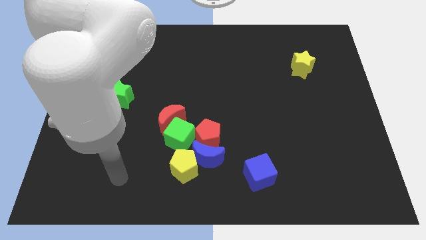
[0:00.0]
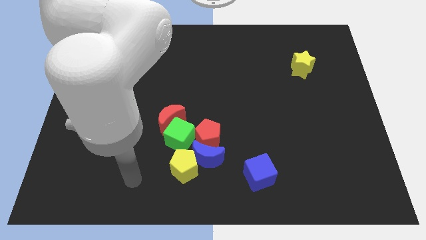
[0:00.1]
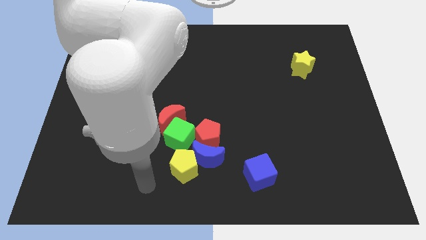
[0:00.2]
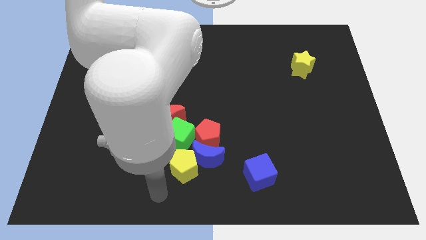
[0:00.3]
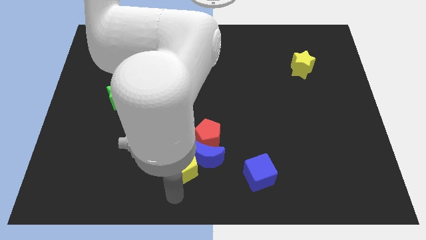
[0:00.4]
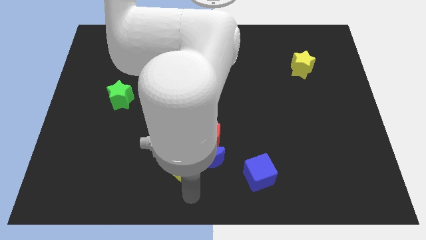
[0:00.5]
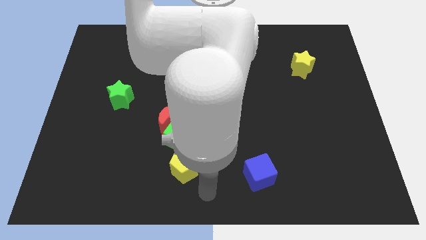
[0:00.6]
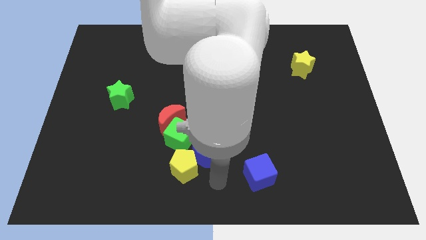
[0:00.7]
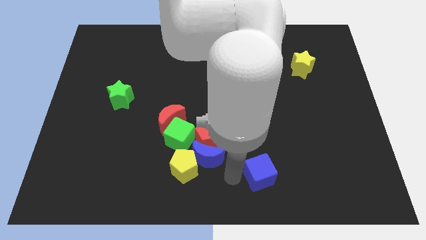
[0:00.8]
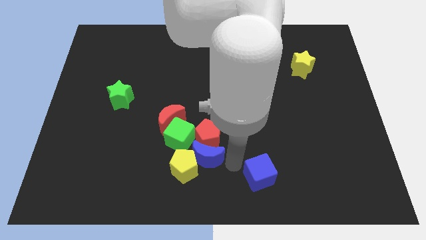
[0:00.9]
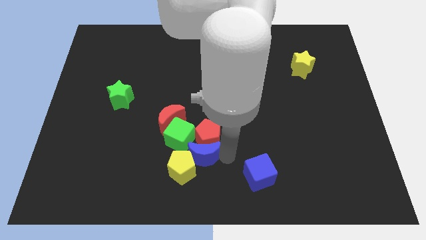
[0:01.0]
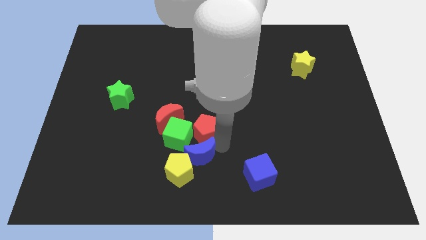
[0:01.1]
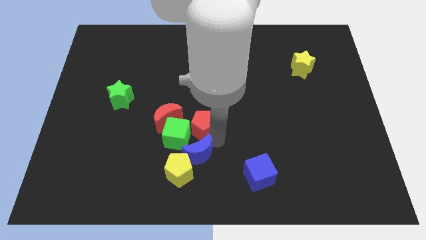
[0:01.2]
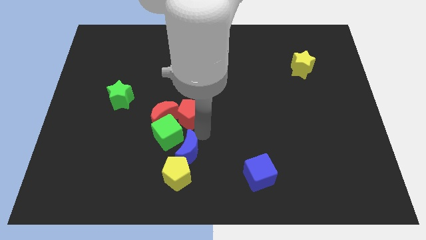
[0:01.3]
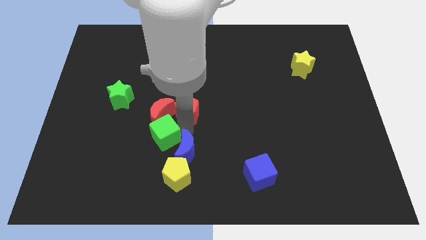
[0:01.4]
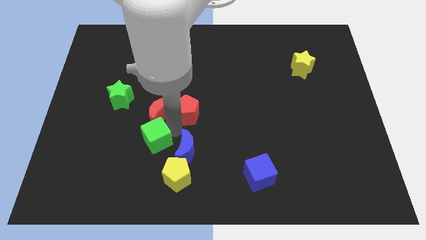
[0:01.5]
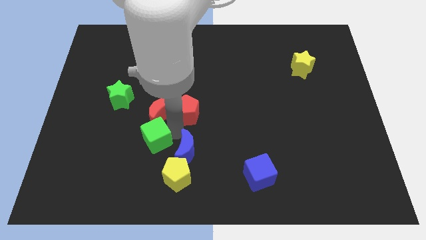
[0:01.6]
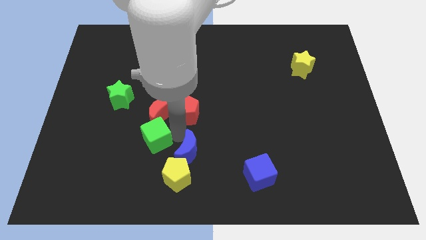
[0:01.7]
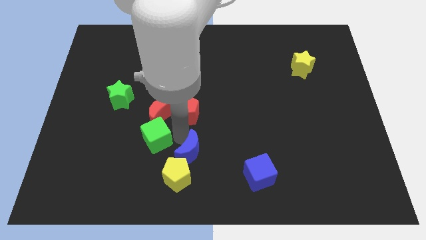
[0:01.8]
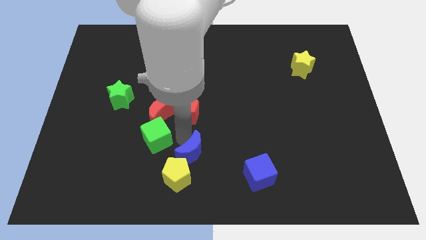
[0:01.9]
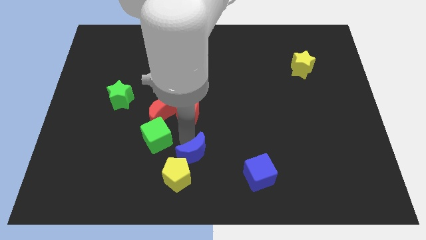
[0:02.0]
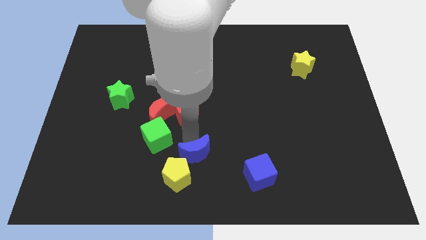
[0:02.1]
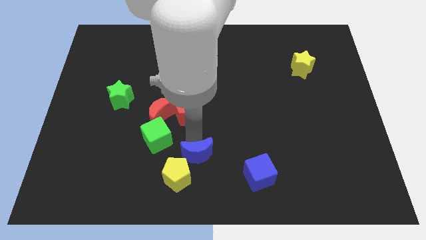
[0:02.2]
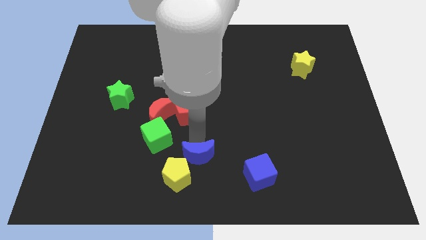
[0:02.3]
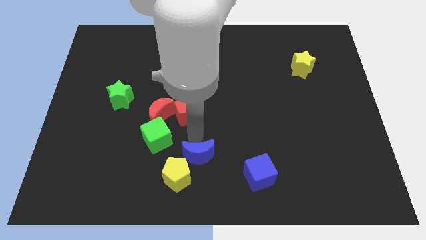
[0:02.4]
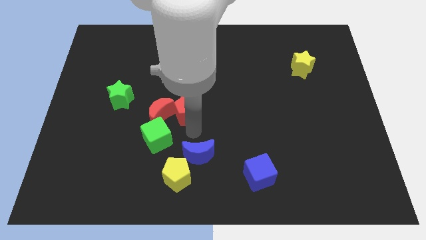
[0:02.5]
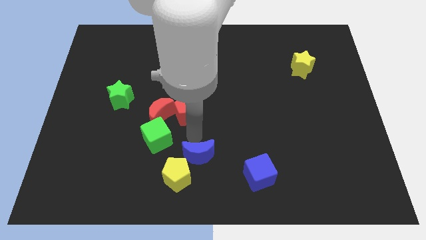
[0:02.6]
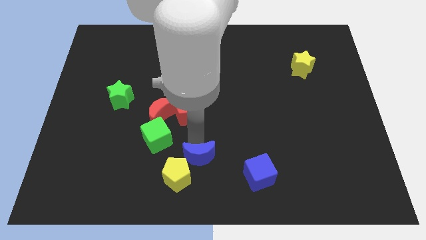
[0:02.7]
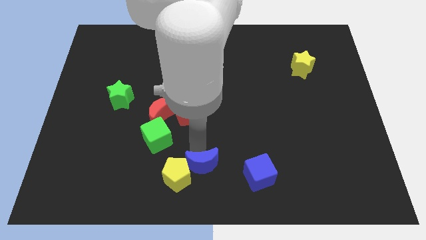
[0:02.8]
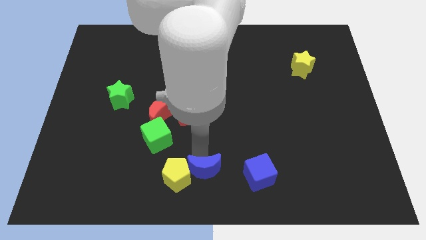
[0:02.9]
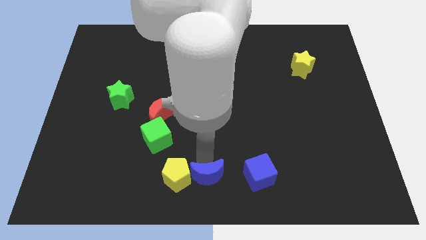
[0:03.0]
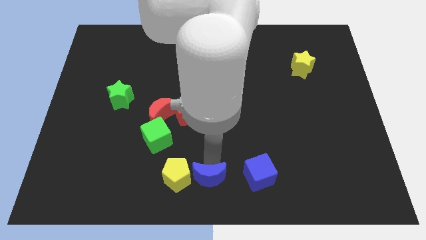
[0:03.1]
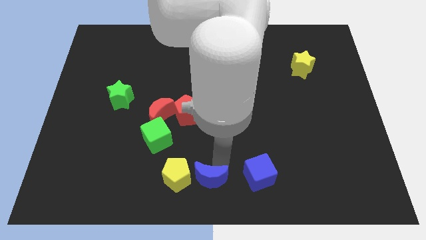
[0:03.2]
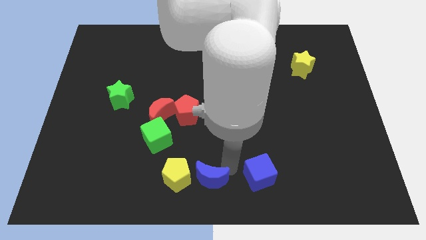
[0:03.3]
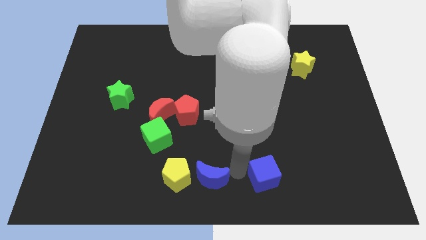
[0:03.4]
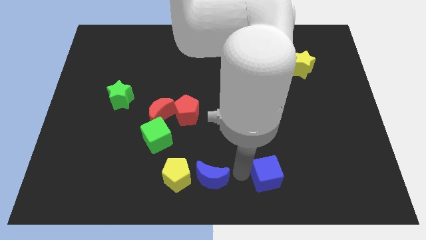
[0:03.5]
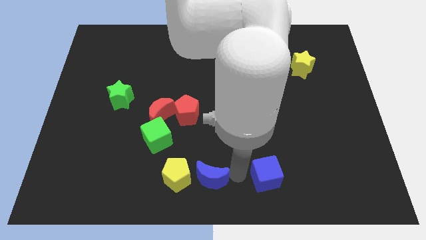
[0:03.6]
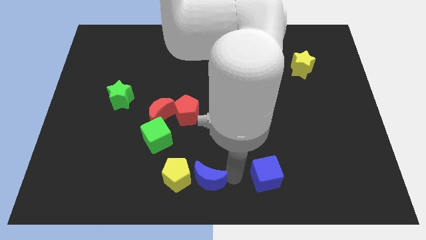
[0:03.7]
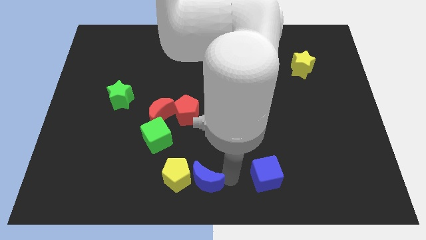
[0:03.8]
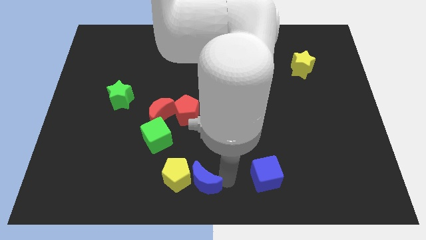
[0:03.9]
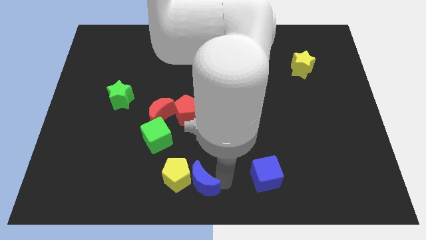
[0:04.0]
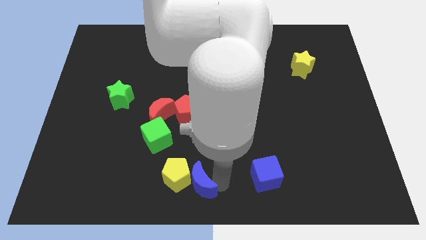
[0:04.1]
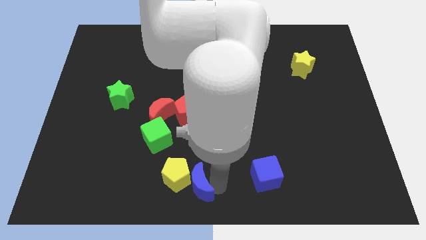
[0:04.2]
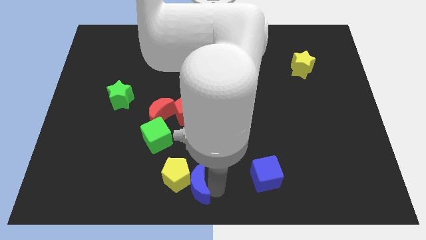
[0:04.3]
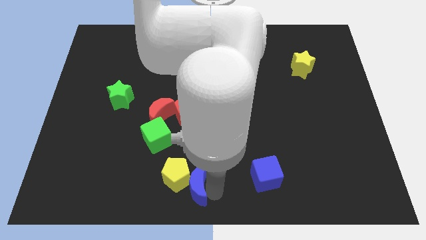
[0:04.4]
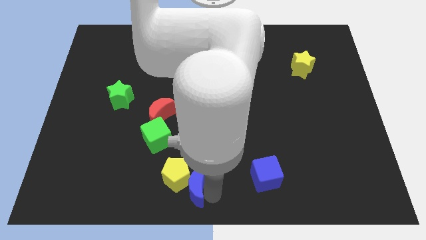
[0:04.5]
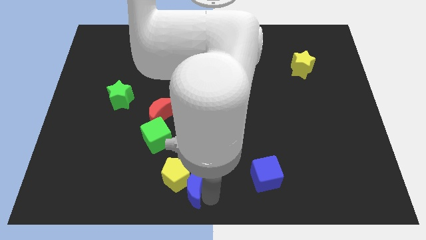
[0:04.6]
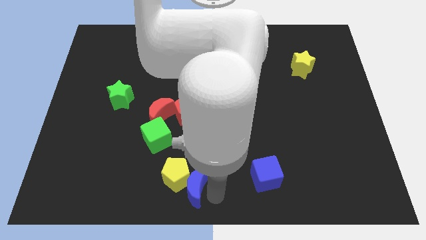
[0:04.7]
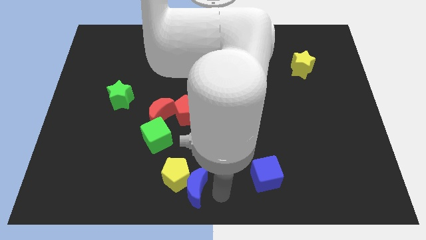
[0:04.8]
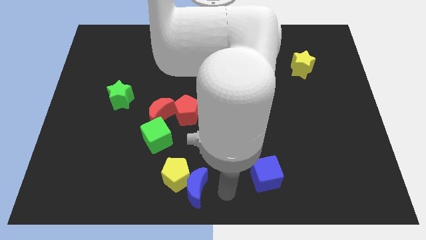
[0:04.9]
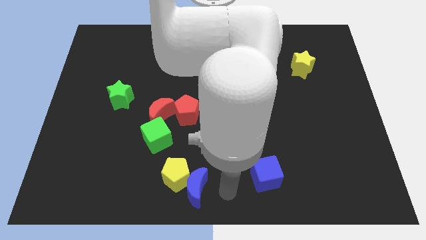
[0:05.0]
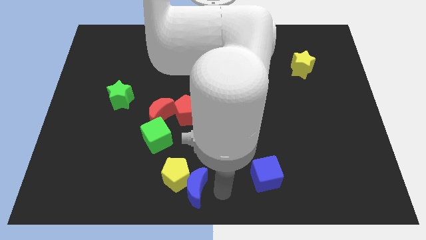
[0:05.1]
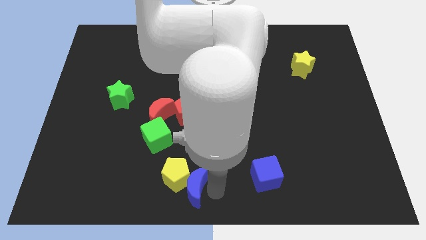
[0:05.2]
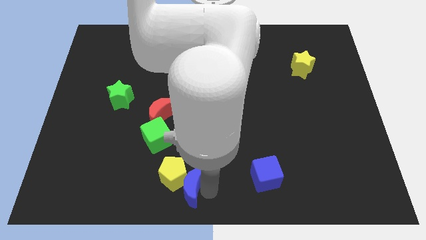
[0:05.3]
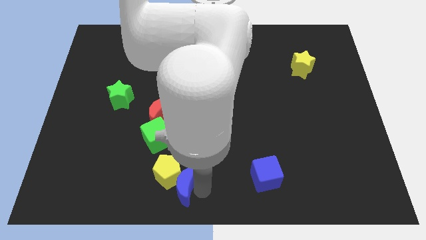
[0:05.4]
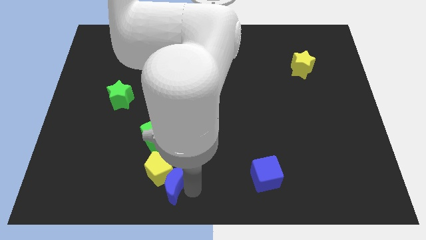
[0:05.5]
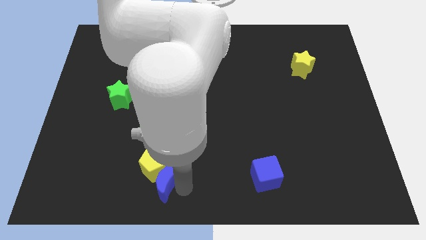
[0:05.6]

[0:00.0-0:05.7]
slide the blue moon somewhat left

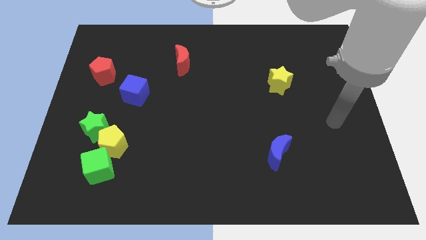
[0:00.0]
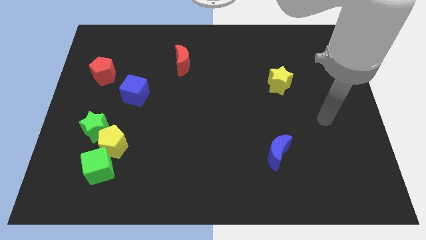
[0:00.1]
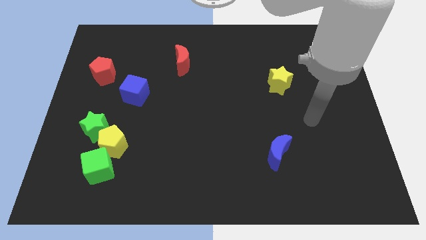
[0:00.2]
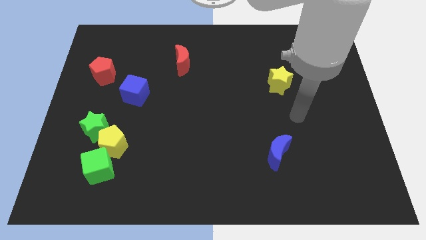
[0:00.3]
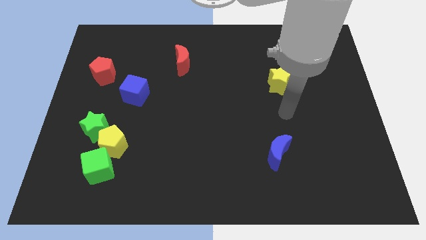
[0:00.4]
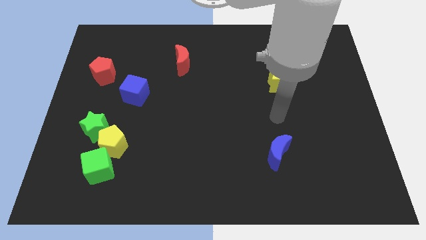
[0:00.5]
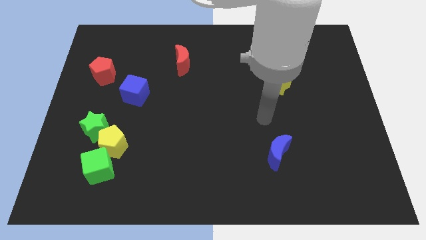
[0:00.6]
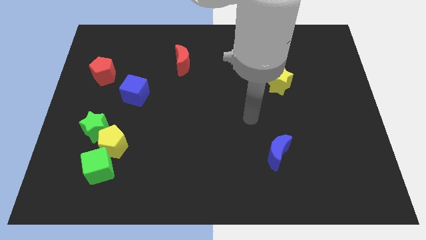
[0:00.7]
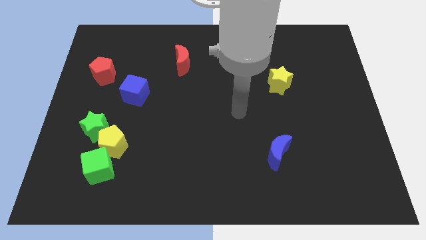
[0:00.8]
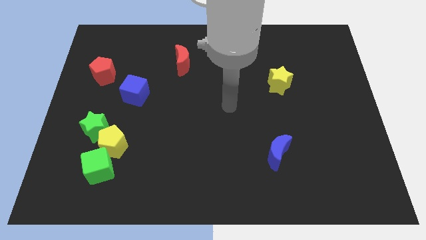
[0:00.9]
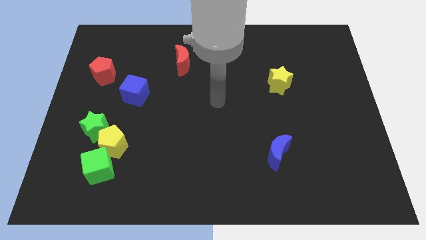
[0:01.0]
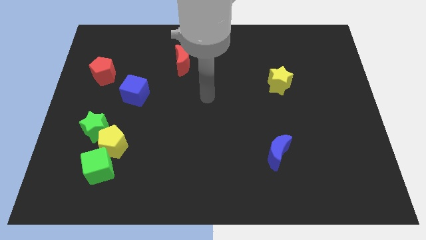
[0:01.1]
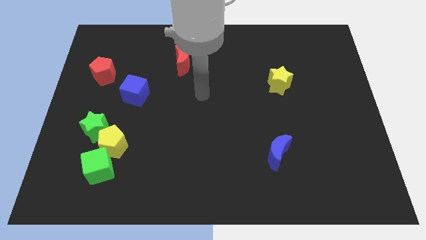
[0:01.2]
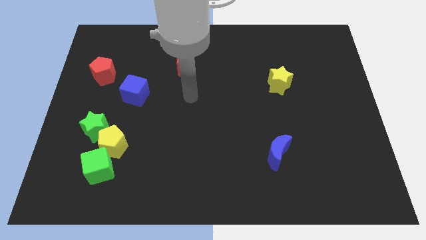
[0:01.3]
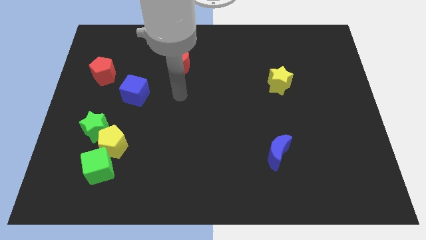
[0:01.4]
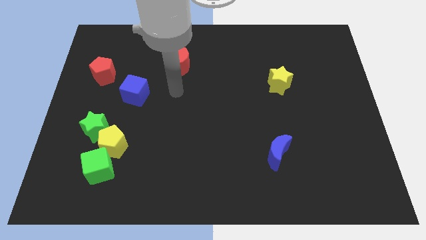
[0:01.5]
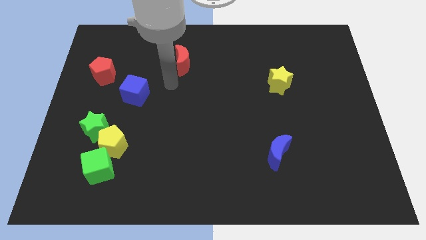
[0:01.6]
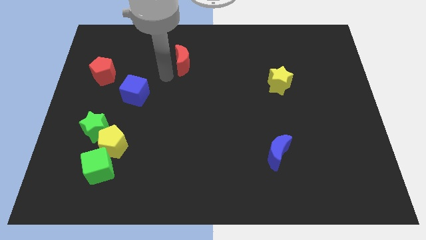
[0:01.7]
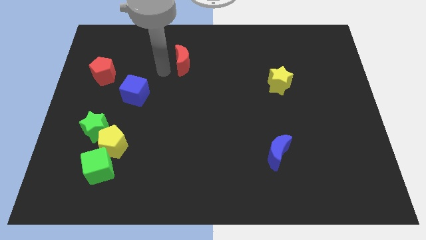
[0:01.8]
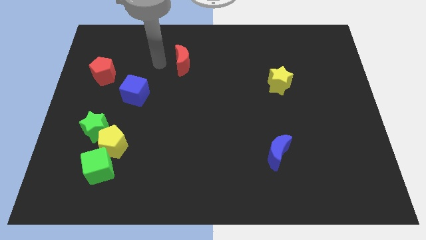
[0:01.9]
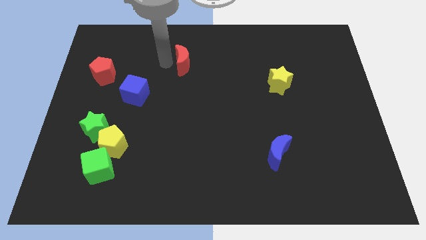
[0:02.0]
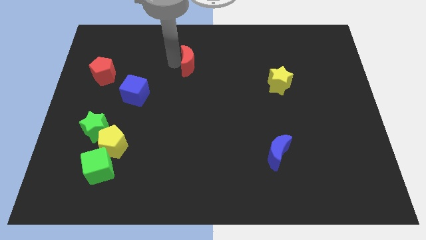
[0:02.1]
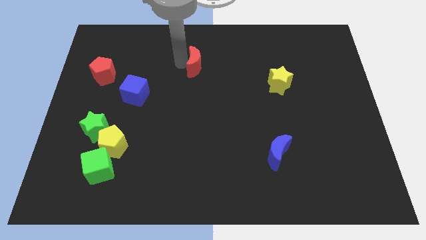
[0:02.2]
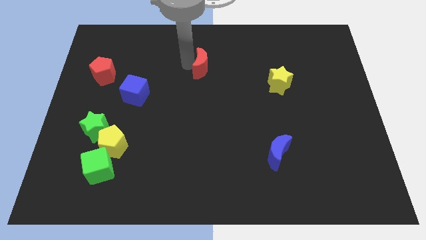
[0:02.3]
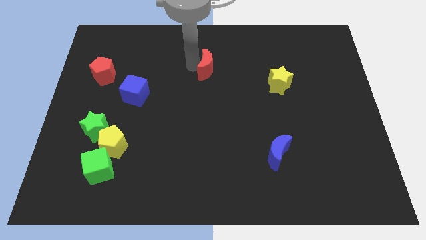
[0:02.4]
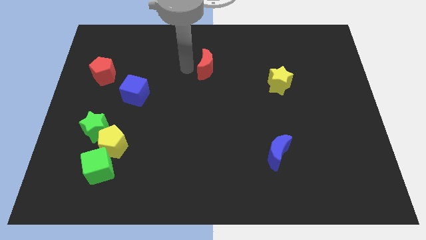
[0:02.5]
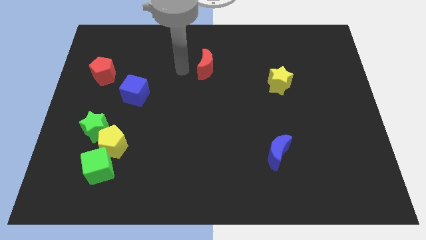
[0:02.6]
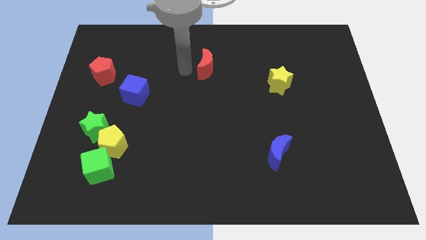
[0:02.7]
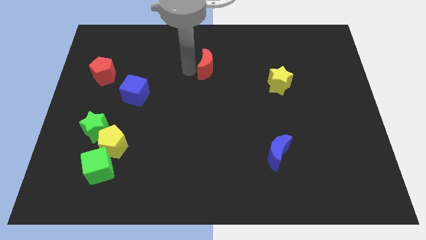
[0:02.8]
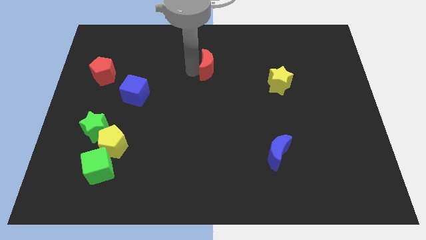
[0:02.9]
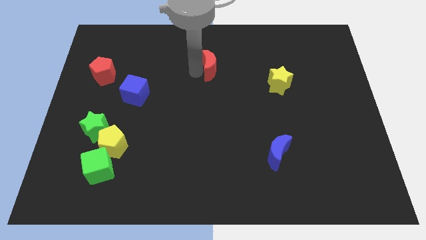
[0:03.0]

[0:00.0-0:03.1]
slightly move the red moon right

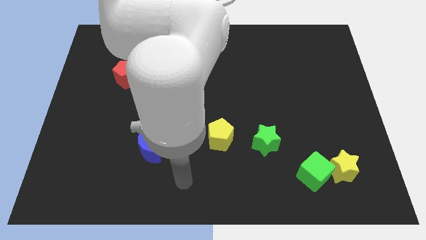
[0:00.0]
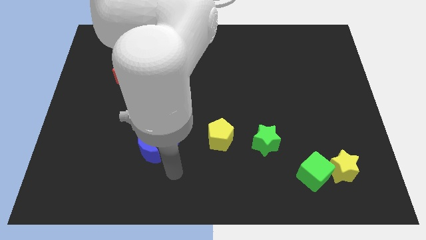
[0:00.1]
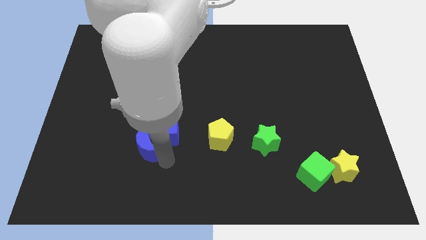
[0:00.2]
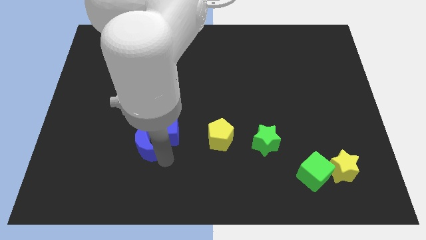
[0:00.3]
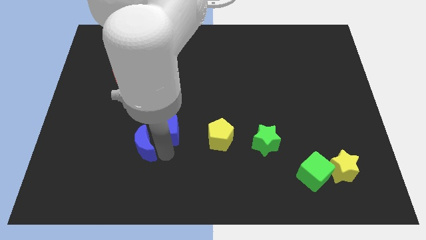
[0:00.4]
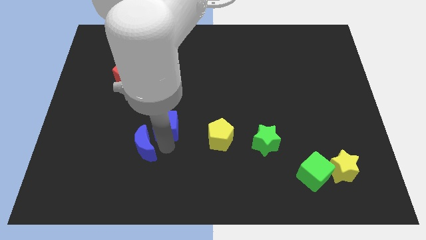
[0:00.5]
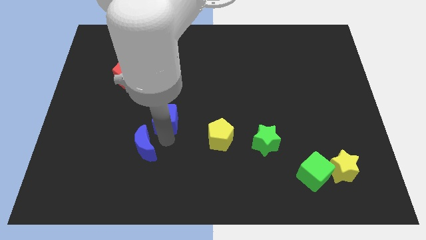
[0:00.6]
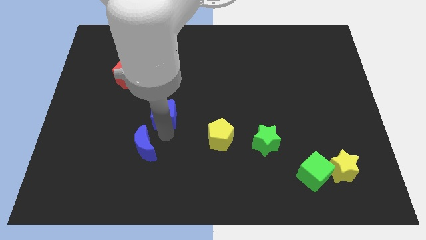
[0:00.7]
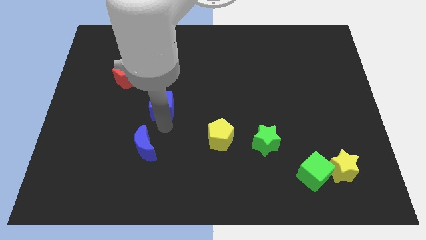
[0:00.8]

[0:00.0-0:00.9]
slightly slide the blue cube upwards
